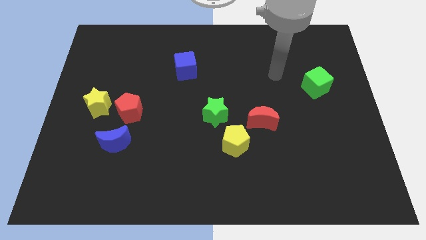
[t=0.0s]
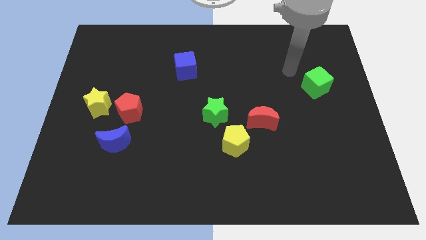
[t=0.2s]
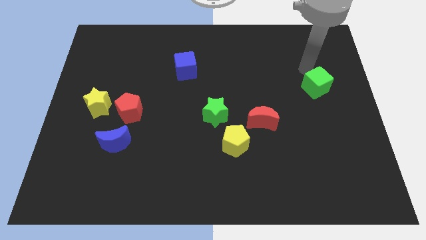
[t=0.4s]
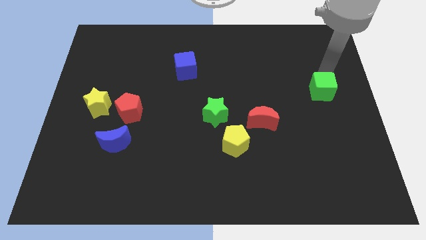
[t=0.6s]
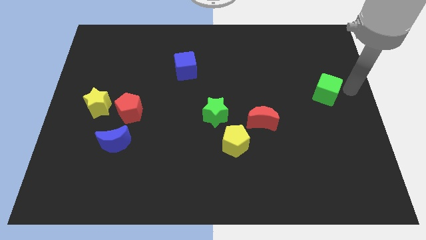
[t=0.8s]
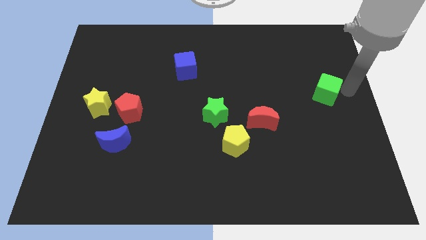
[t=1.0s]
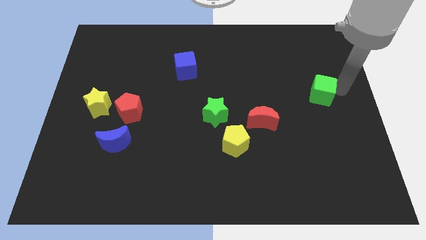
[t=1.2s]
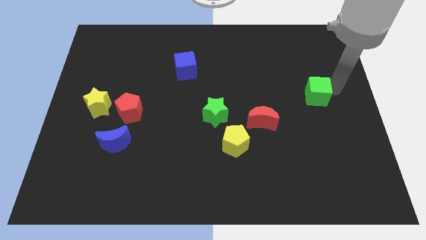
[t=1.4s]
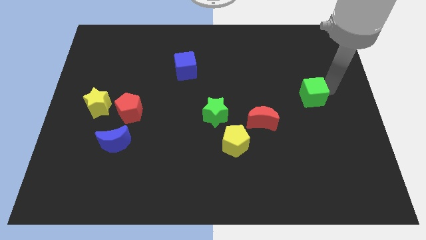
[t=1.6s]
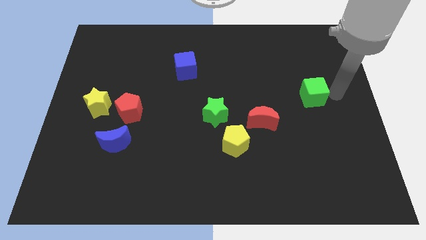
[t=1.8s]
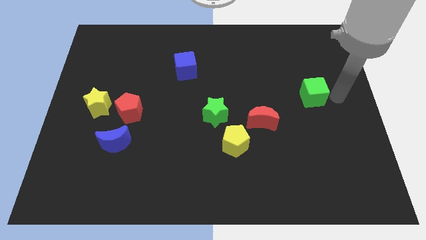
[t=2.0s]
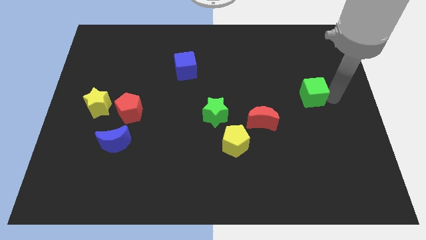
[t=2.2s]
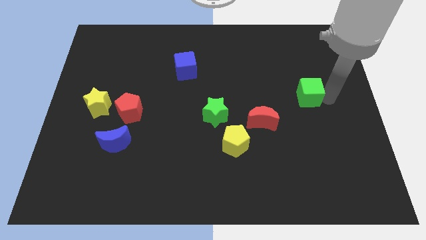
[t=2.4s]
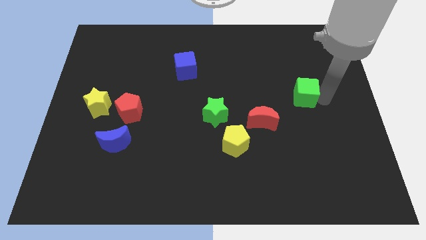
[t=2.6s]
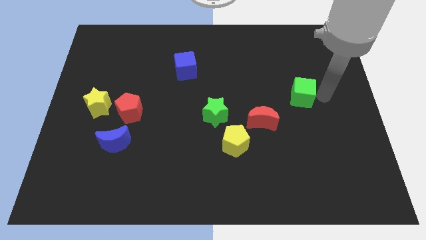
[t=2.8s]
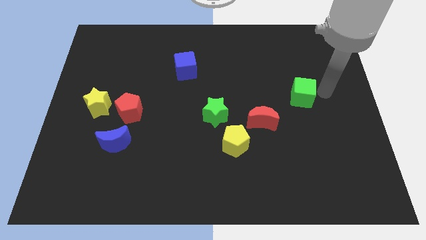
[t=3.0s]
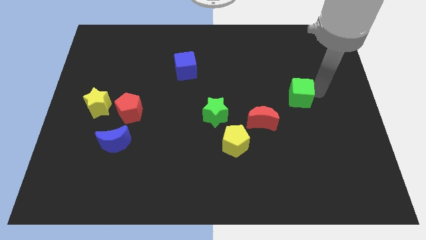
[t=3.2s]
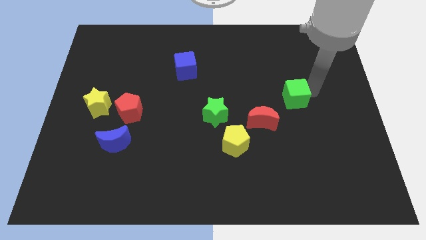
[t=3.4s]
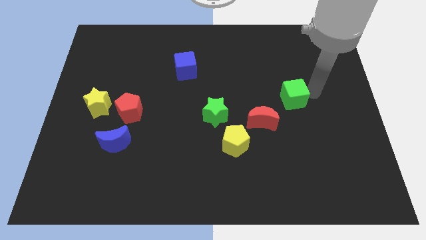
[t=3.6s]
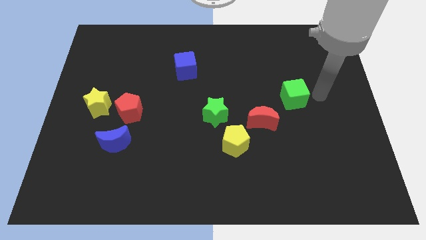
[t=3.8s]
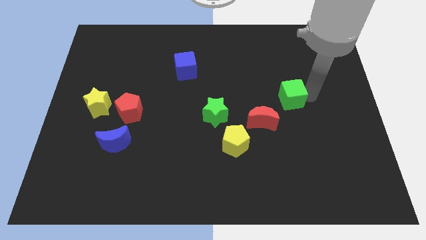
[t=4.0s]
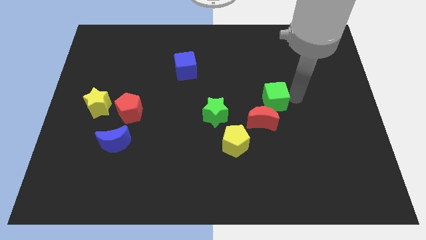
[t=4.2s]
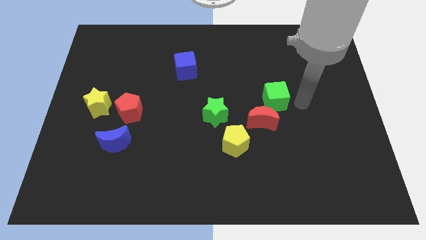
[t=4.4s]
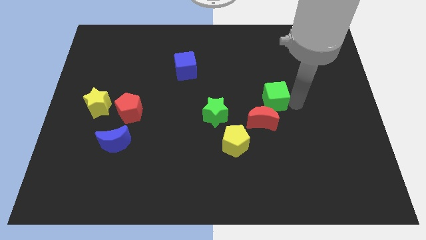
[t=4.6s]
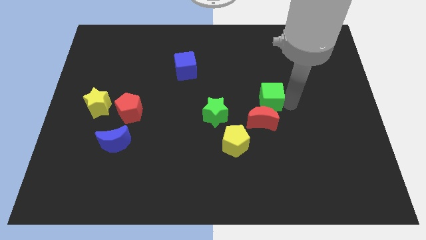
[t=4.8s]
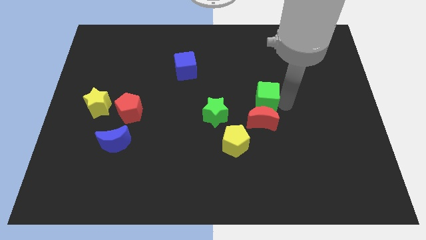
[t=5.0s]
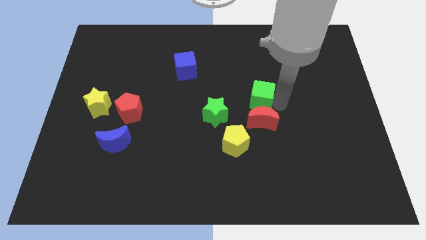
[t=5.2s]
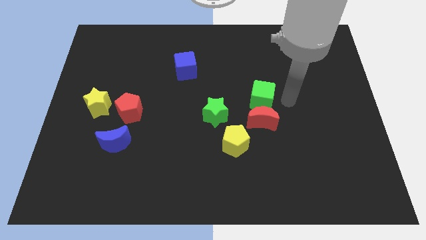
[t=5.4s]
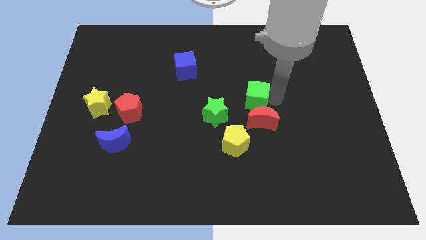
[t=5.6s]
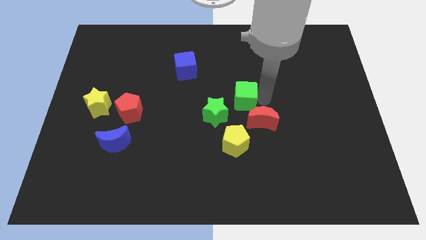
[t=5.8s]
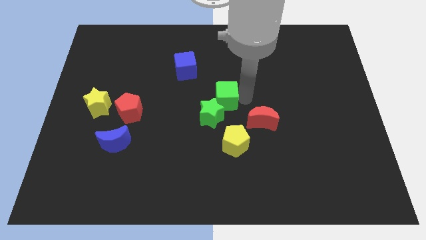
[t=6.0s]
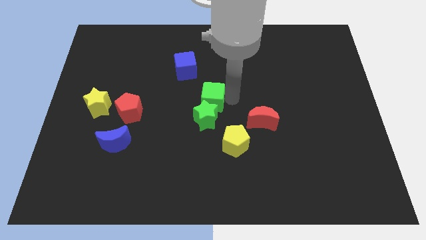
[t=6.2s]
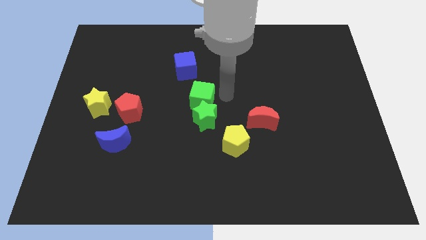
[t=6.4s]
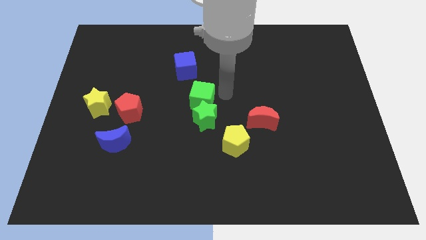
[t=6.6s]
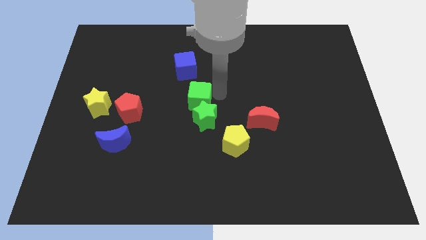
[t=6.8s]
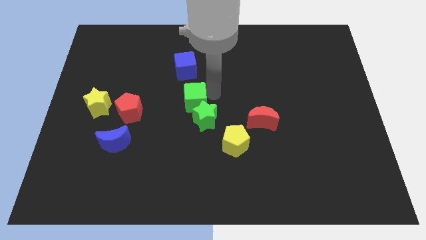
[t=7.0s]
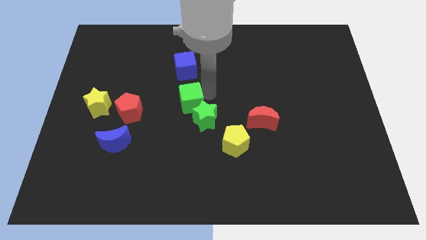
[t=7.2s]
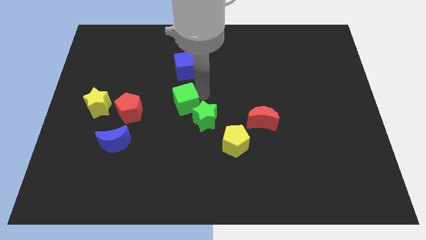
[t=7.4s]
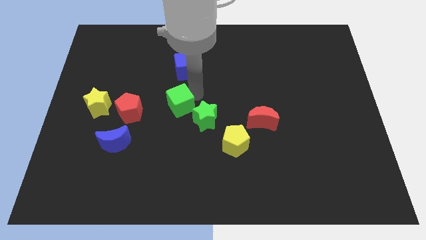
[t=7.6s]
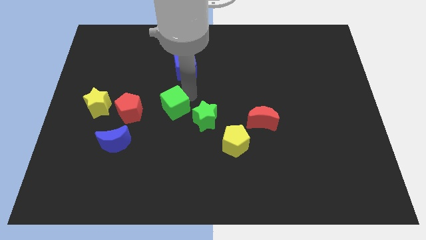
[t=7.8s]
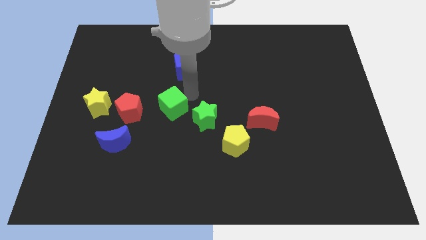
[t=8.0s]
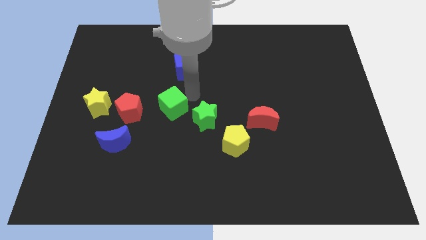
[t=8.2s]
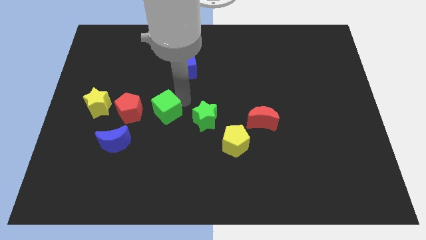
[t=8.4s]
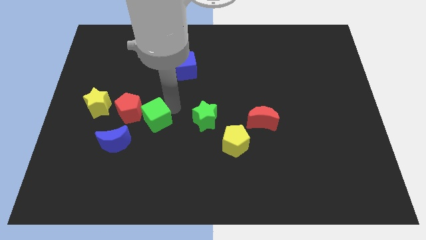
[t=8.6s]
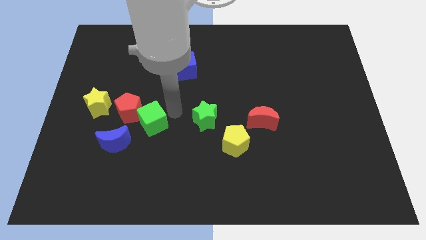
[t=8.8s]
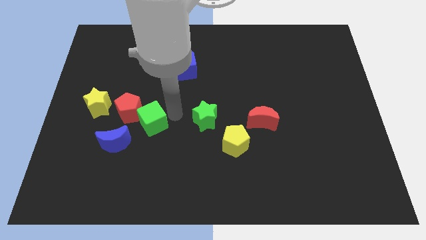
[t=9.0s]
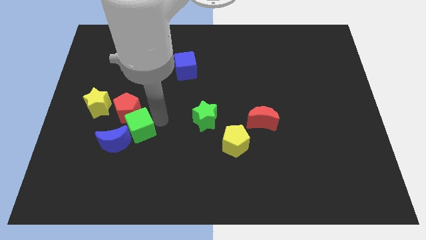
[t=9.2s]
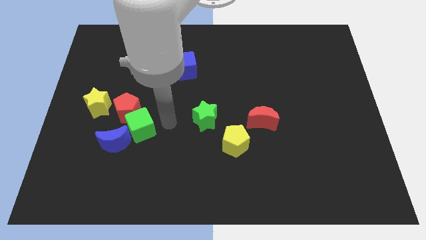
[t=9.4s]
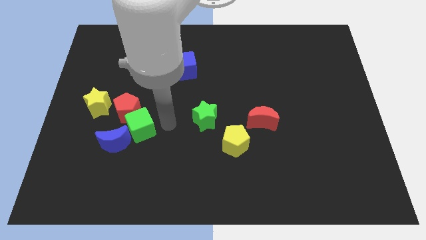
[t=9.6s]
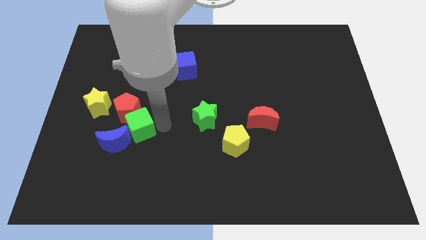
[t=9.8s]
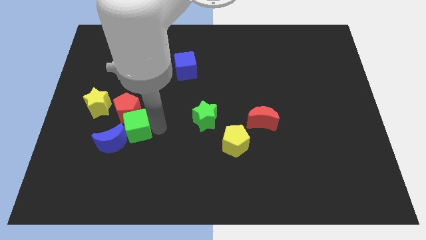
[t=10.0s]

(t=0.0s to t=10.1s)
push the green cube towards the blue moon

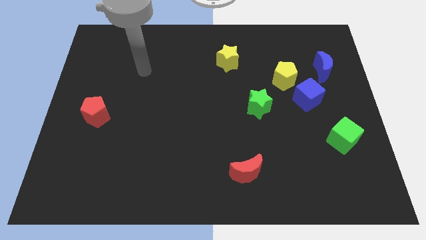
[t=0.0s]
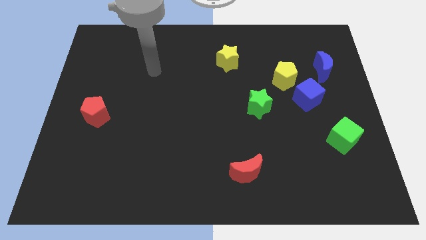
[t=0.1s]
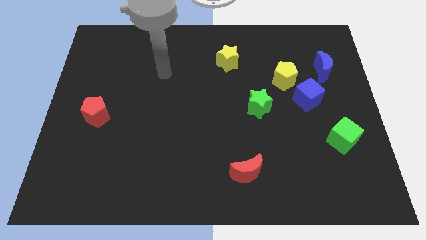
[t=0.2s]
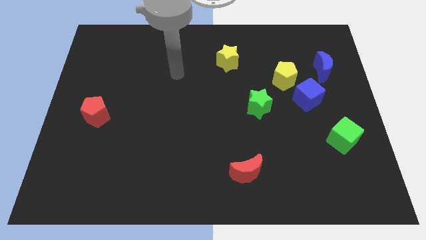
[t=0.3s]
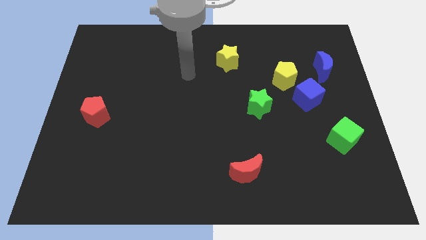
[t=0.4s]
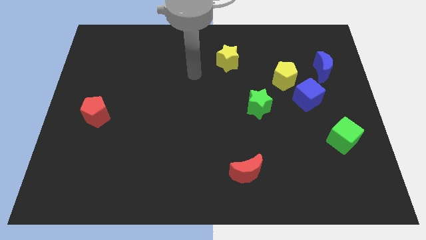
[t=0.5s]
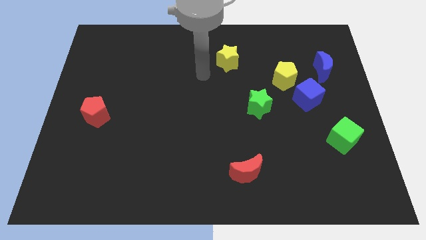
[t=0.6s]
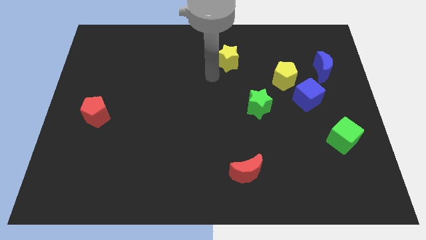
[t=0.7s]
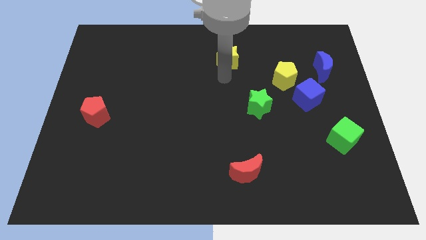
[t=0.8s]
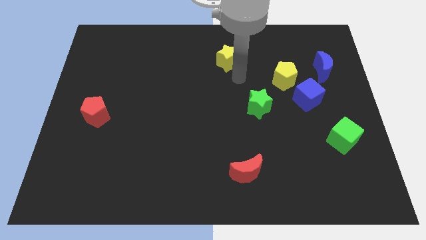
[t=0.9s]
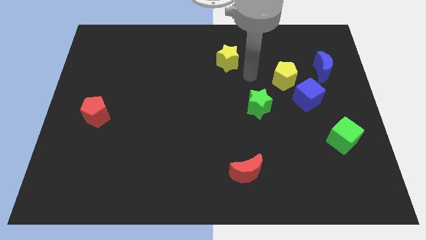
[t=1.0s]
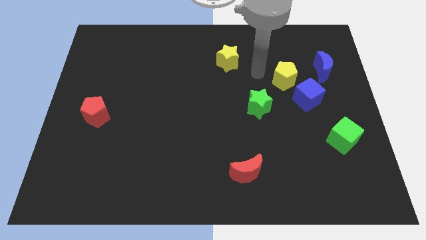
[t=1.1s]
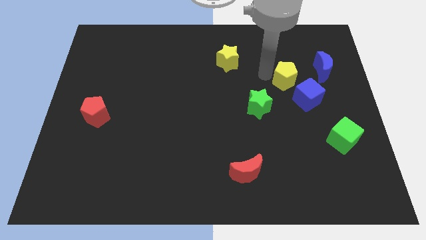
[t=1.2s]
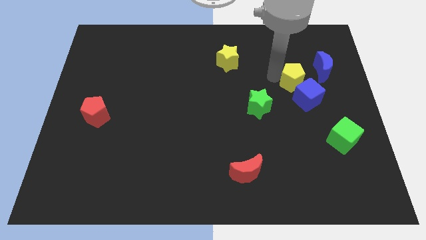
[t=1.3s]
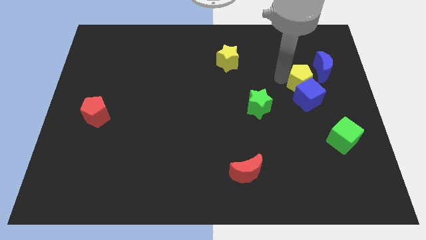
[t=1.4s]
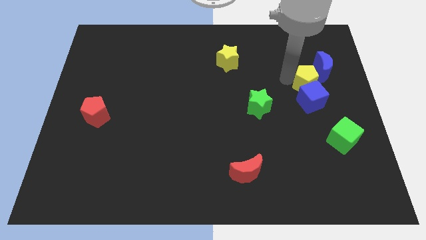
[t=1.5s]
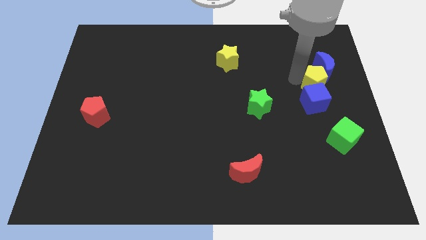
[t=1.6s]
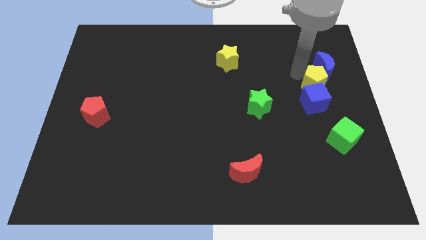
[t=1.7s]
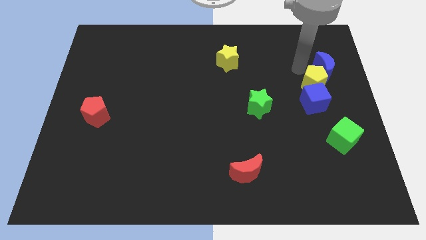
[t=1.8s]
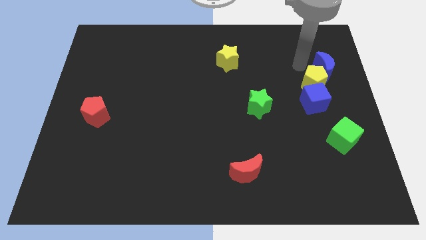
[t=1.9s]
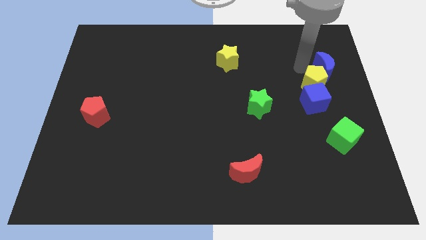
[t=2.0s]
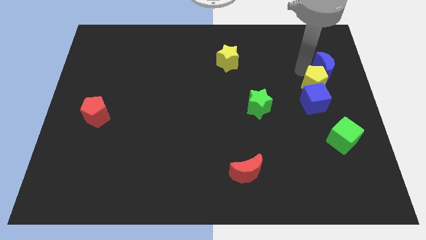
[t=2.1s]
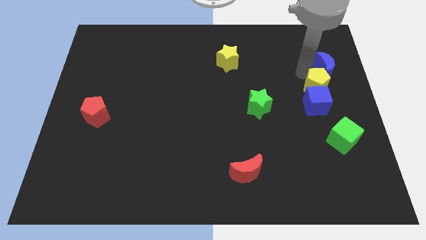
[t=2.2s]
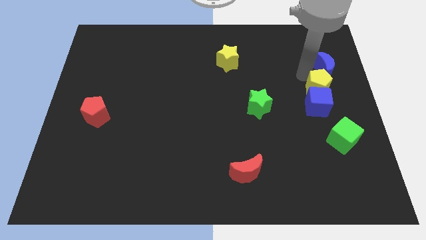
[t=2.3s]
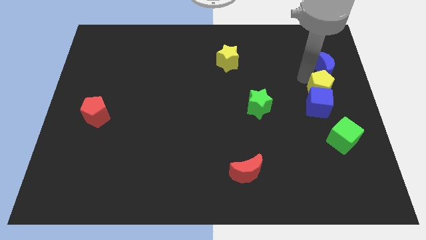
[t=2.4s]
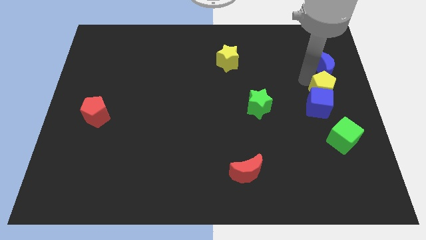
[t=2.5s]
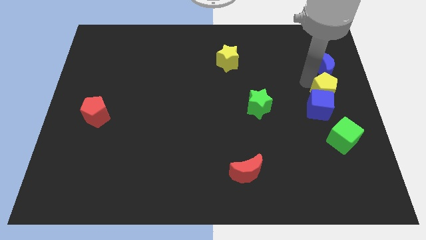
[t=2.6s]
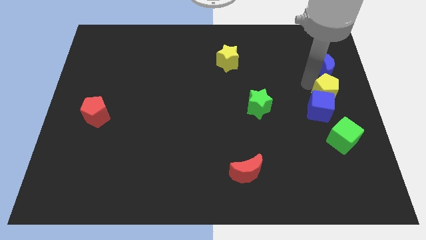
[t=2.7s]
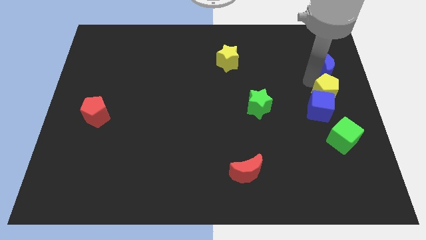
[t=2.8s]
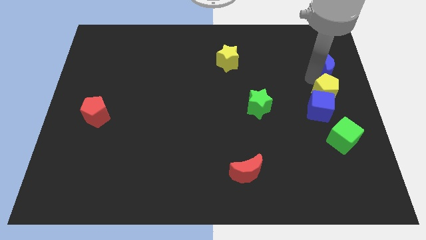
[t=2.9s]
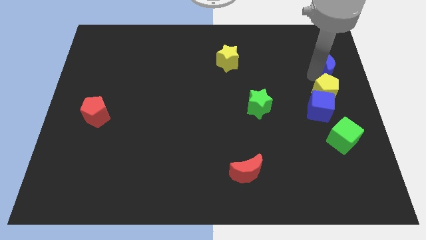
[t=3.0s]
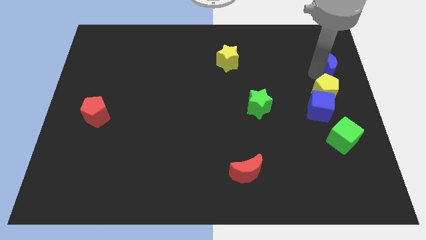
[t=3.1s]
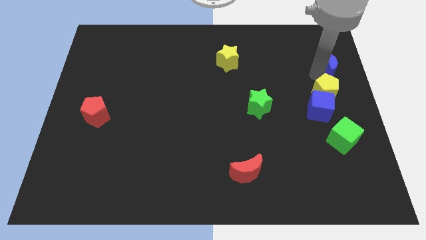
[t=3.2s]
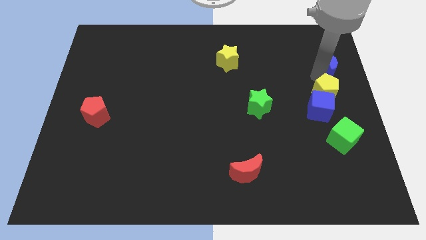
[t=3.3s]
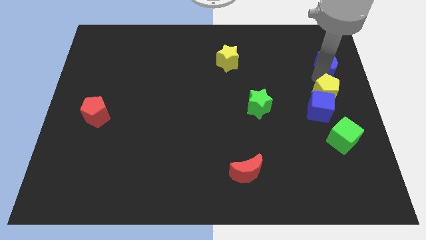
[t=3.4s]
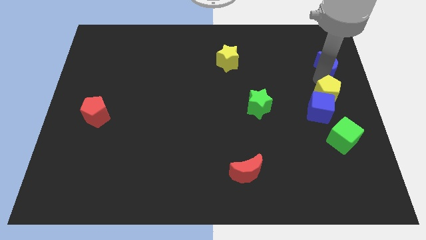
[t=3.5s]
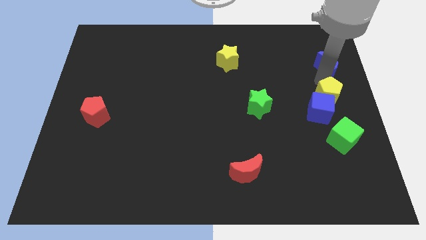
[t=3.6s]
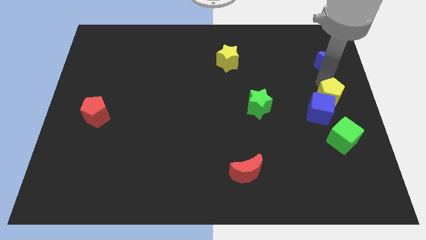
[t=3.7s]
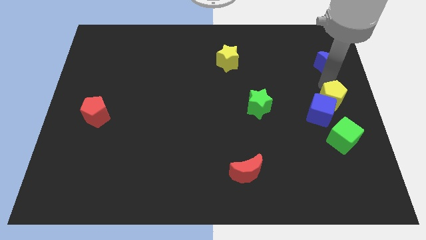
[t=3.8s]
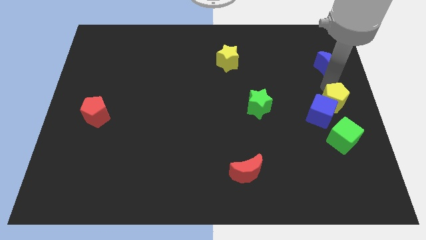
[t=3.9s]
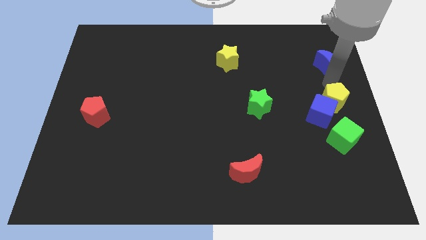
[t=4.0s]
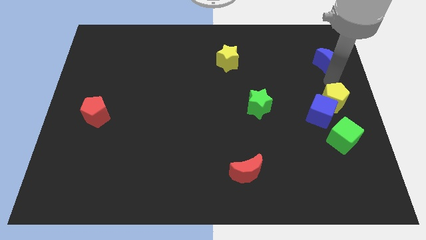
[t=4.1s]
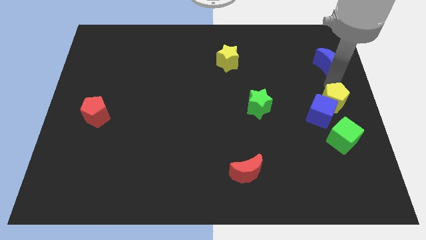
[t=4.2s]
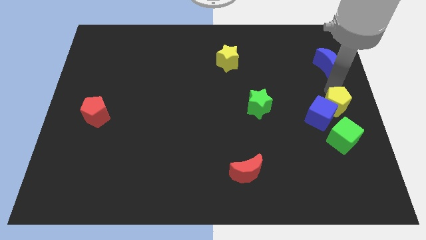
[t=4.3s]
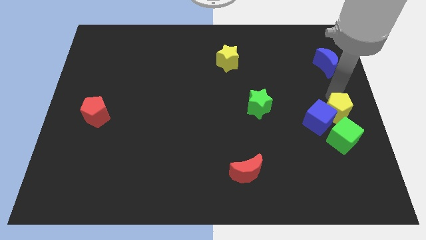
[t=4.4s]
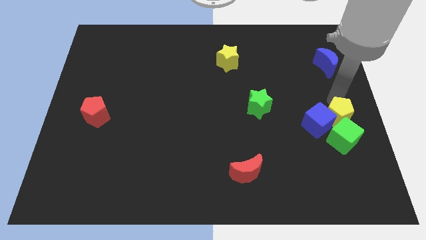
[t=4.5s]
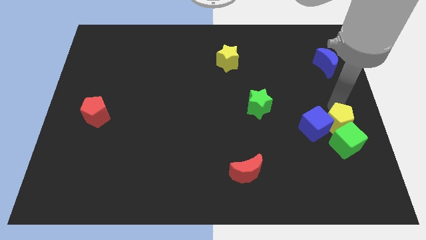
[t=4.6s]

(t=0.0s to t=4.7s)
put the yellow pentagon next to the green cube
